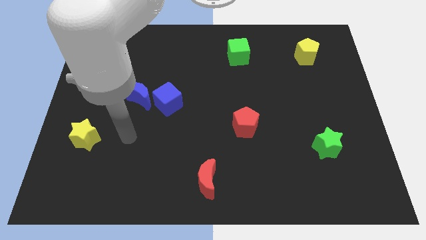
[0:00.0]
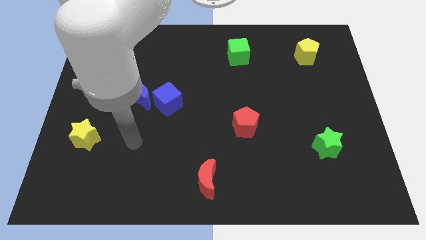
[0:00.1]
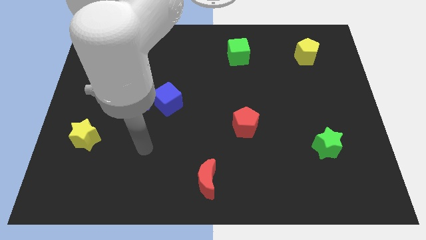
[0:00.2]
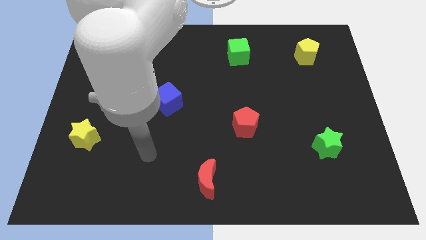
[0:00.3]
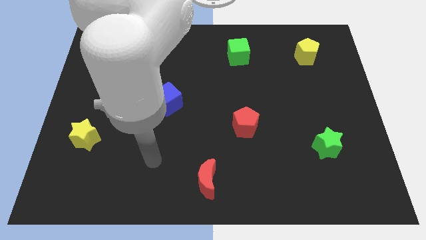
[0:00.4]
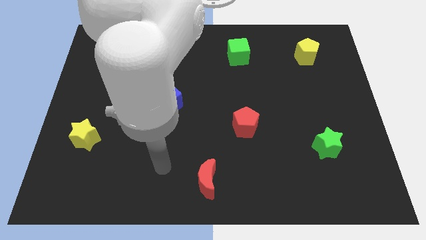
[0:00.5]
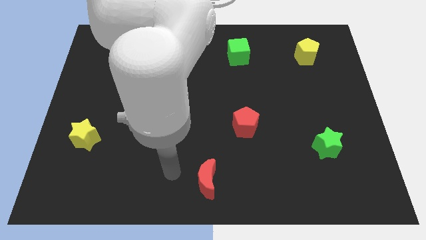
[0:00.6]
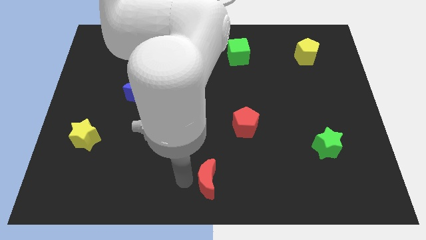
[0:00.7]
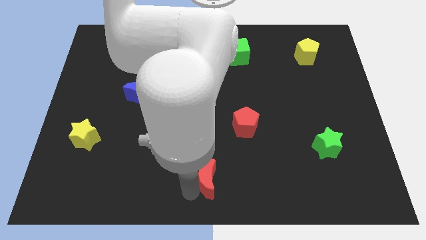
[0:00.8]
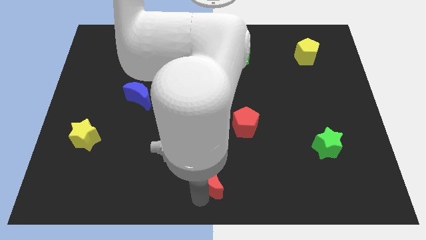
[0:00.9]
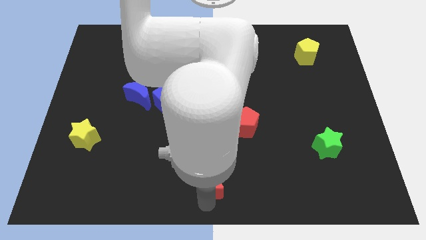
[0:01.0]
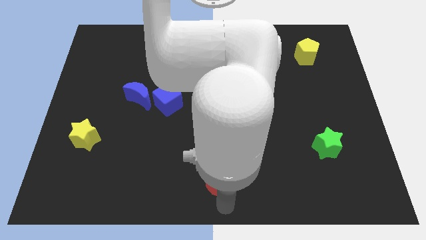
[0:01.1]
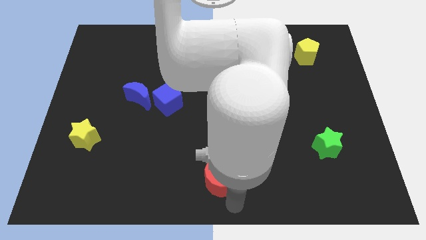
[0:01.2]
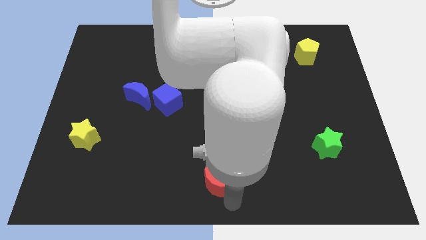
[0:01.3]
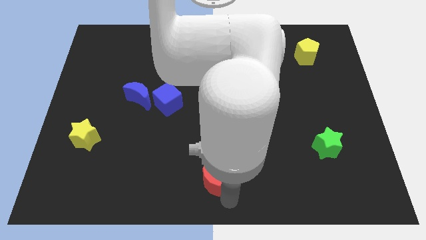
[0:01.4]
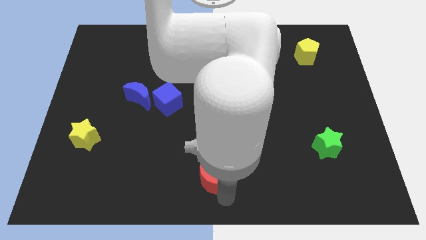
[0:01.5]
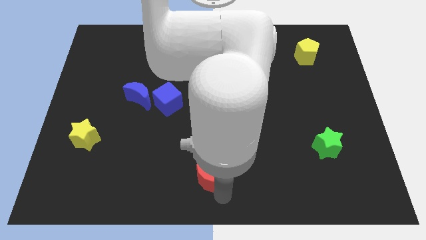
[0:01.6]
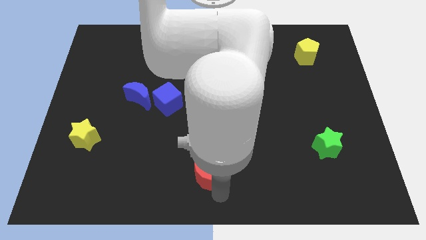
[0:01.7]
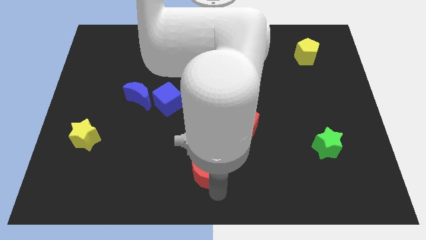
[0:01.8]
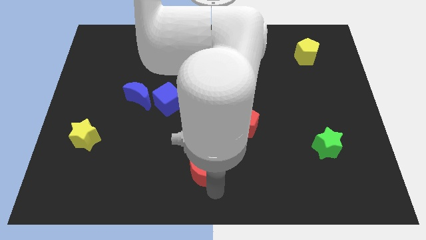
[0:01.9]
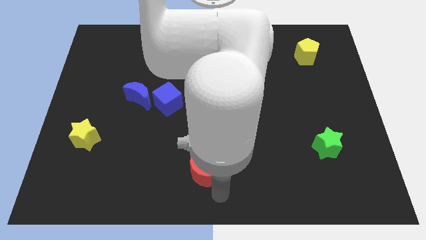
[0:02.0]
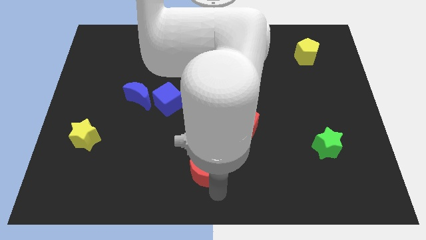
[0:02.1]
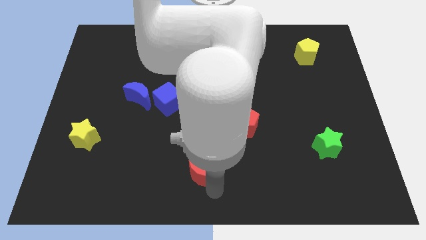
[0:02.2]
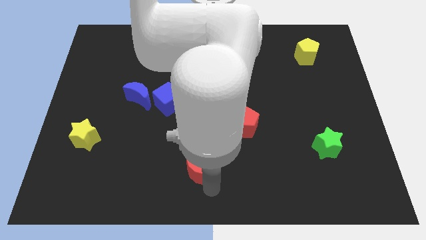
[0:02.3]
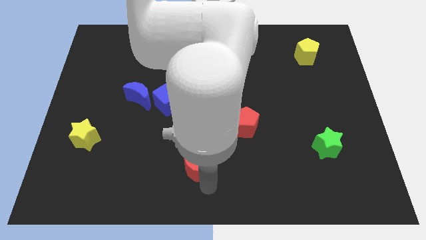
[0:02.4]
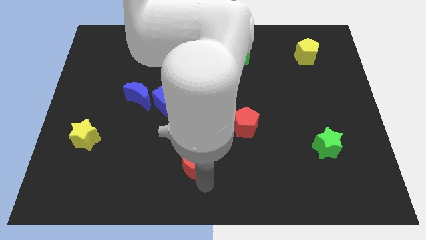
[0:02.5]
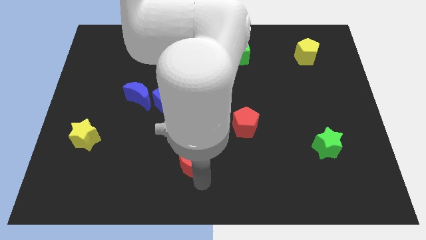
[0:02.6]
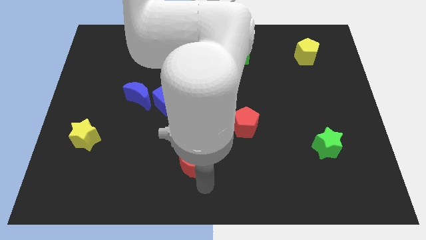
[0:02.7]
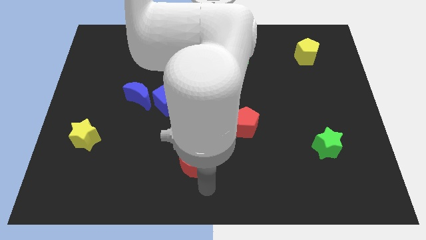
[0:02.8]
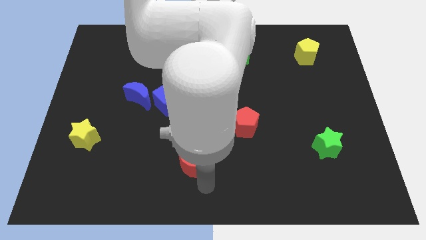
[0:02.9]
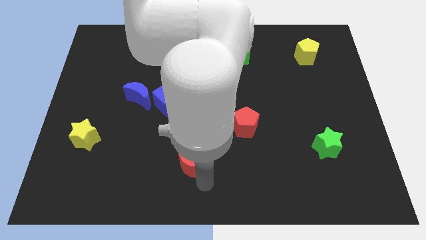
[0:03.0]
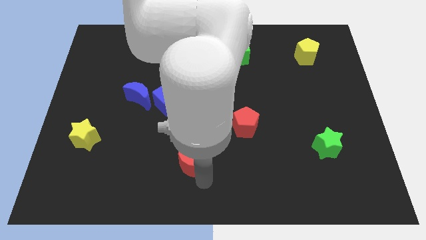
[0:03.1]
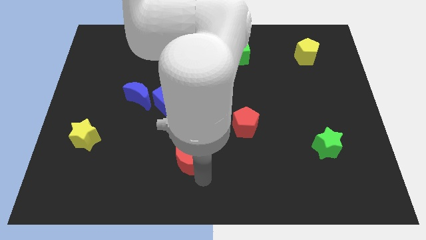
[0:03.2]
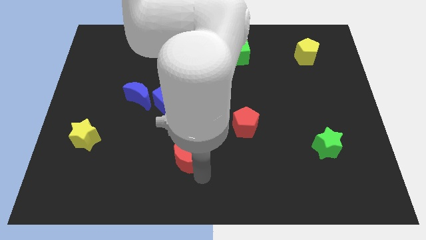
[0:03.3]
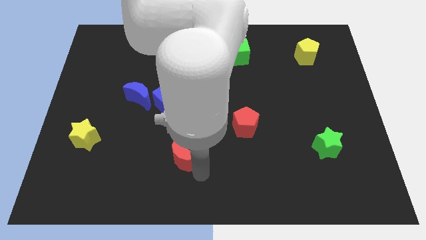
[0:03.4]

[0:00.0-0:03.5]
push the red moon upwards and then to the left somewhat

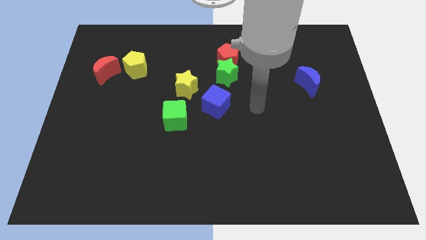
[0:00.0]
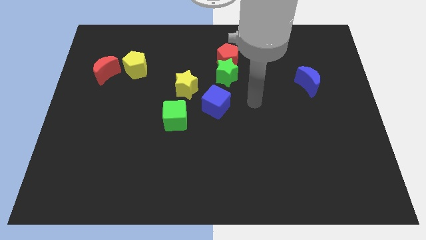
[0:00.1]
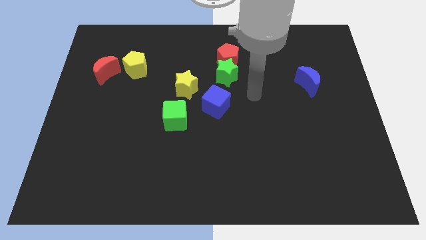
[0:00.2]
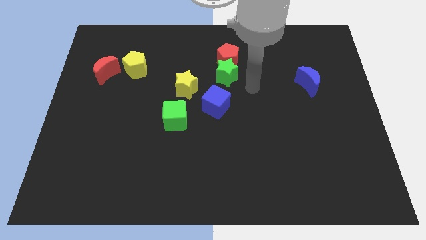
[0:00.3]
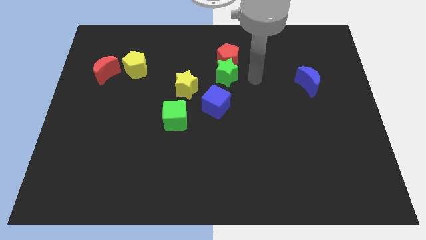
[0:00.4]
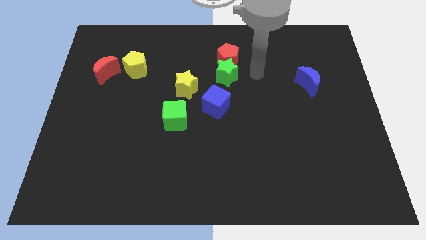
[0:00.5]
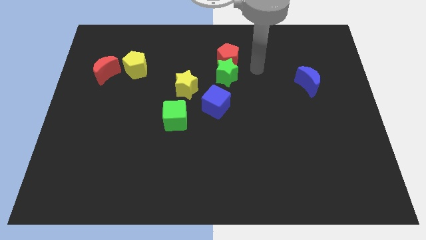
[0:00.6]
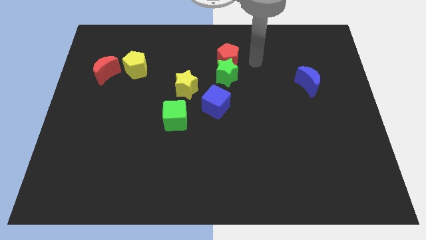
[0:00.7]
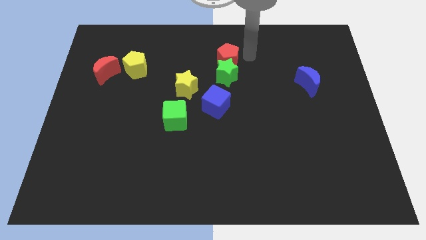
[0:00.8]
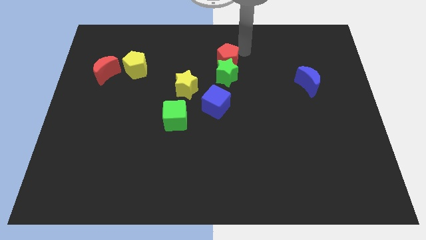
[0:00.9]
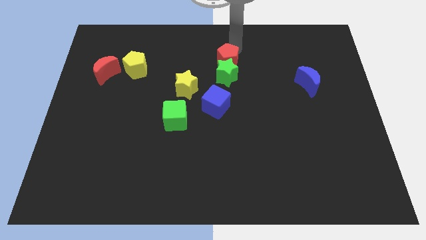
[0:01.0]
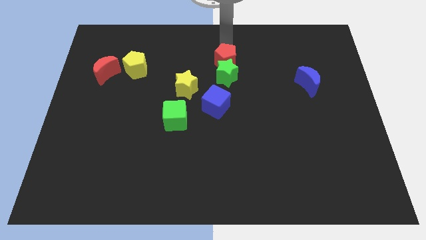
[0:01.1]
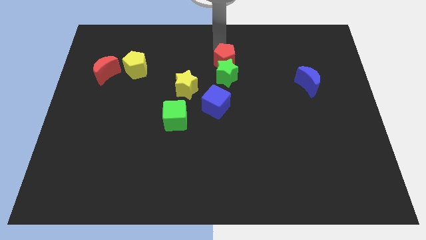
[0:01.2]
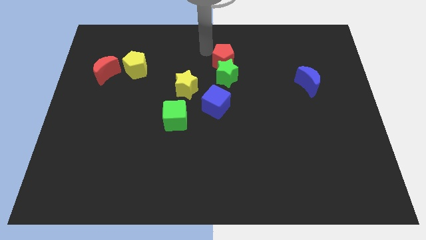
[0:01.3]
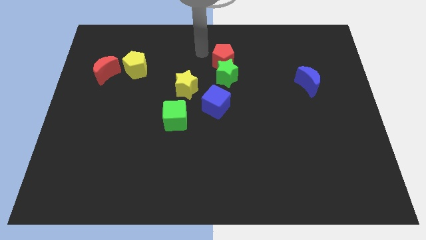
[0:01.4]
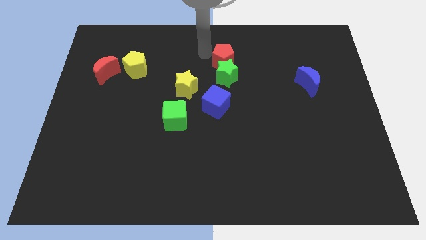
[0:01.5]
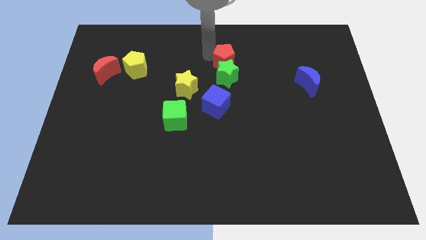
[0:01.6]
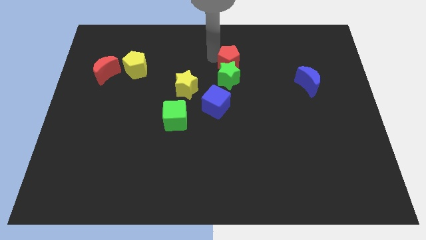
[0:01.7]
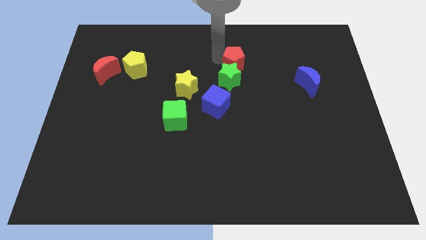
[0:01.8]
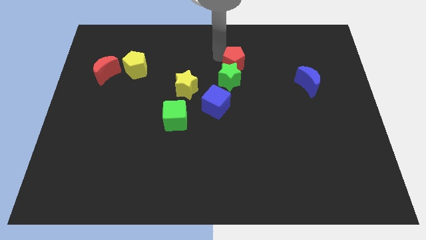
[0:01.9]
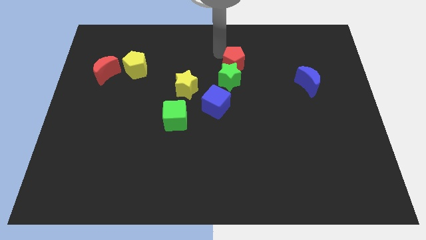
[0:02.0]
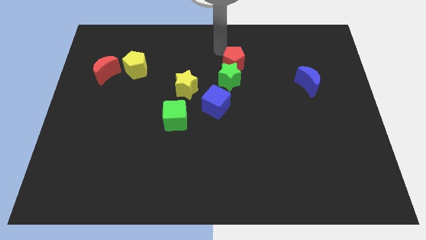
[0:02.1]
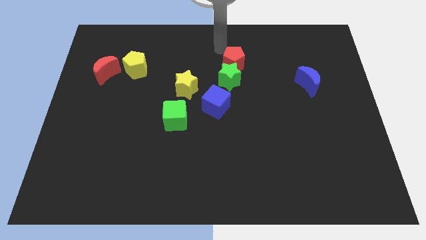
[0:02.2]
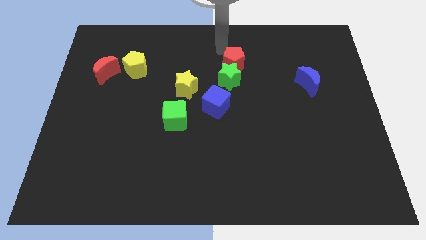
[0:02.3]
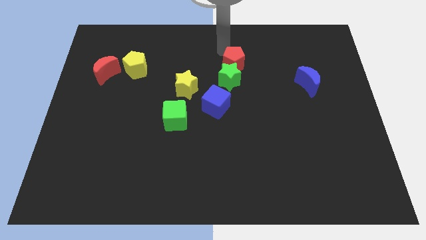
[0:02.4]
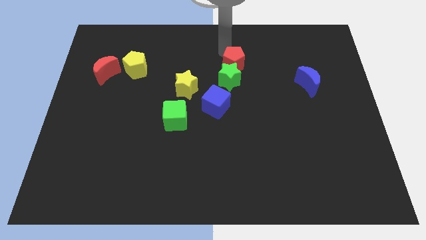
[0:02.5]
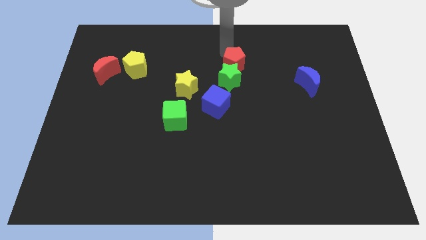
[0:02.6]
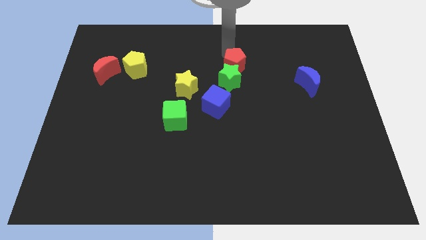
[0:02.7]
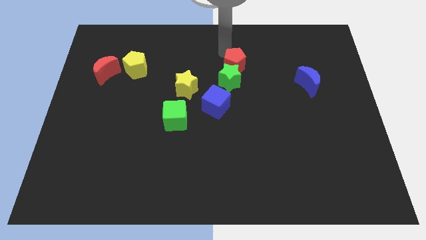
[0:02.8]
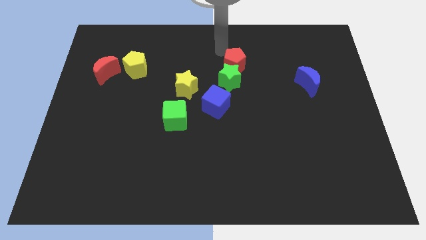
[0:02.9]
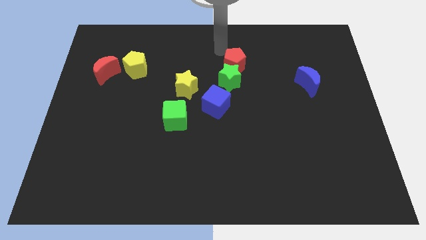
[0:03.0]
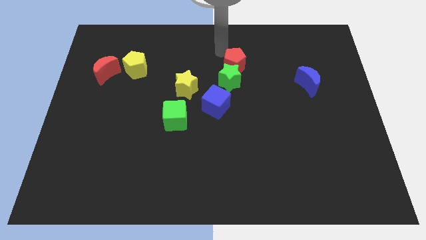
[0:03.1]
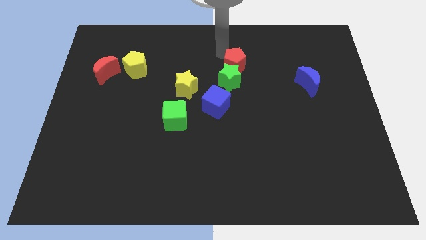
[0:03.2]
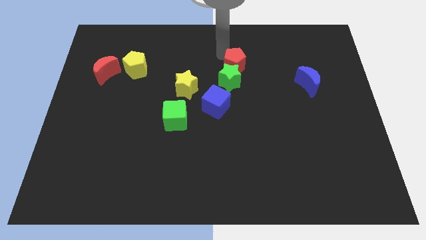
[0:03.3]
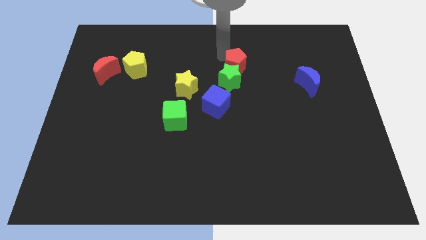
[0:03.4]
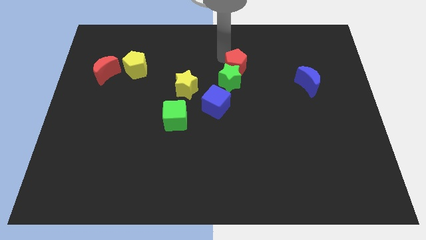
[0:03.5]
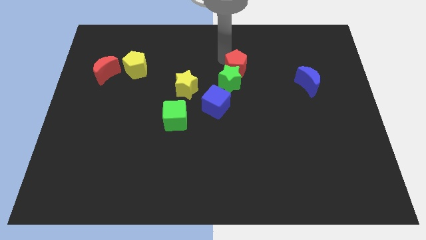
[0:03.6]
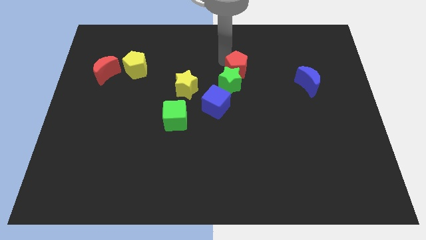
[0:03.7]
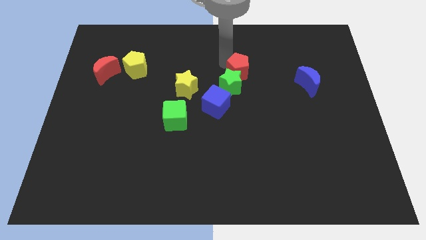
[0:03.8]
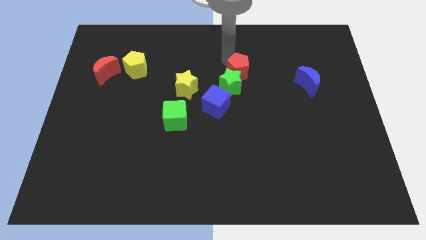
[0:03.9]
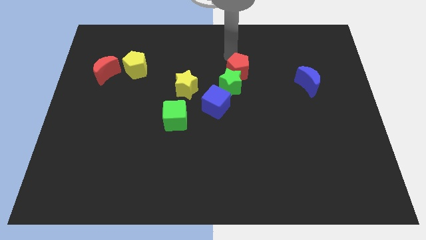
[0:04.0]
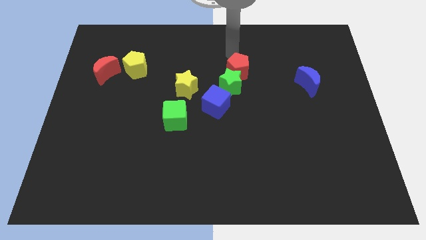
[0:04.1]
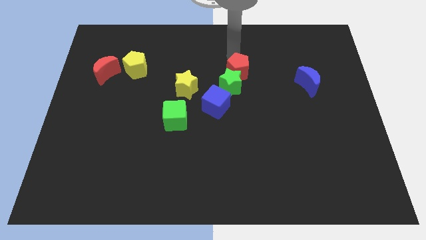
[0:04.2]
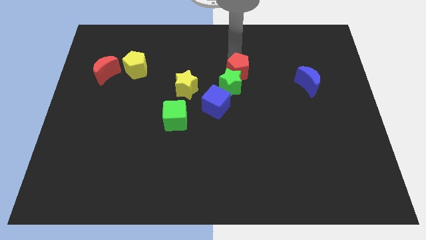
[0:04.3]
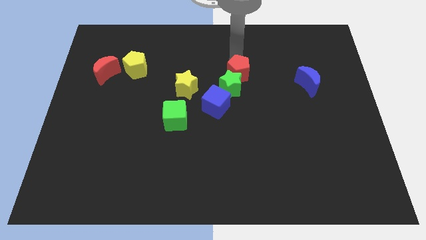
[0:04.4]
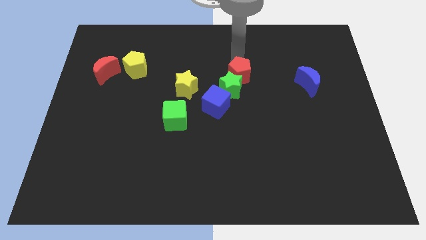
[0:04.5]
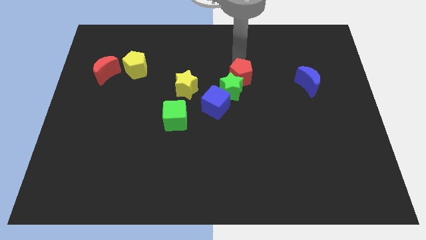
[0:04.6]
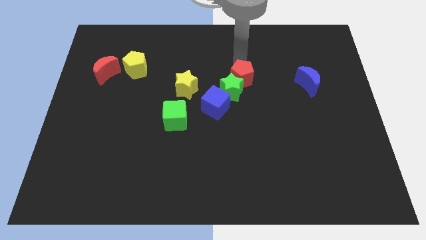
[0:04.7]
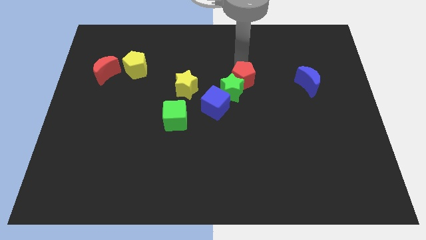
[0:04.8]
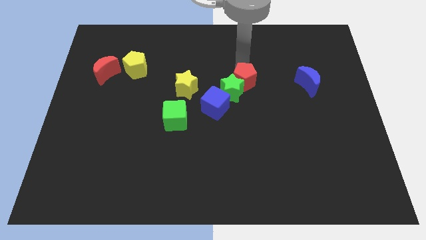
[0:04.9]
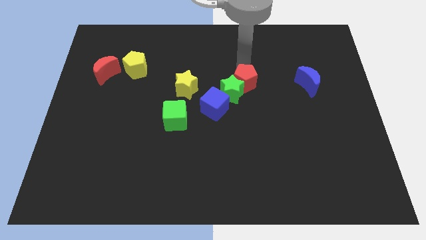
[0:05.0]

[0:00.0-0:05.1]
slightly slide the red pentagon downwards
